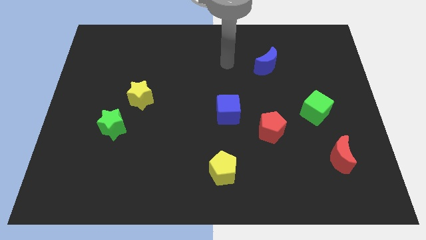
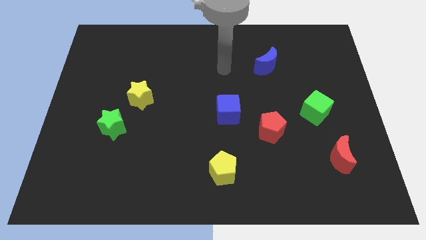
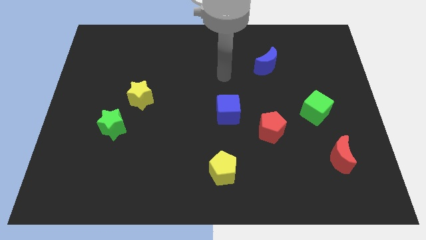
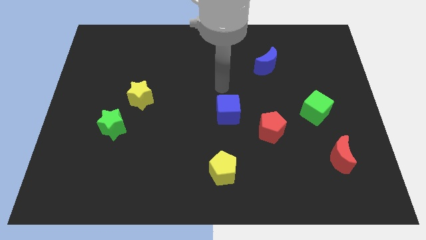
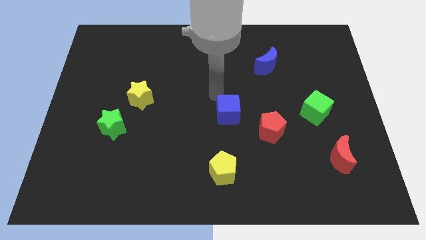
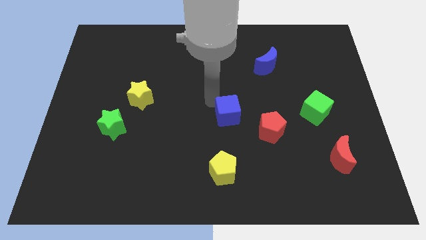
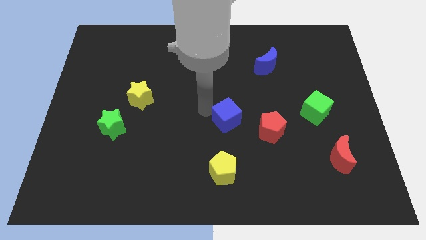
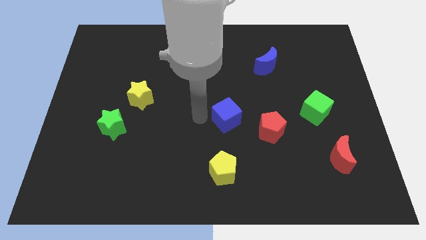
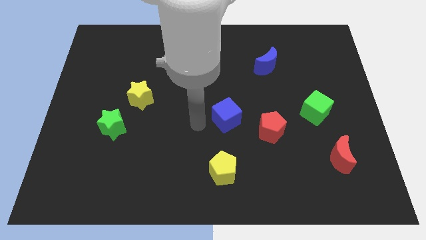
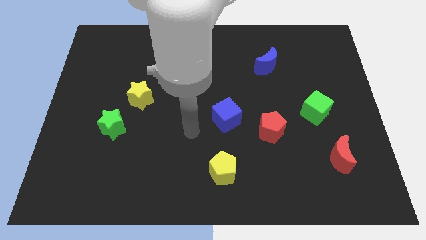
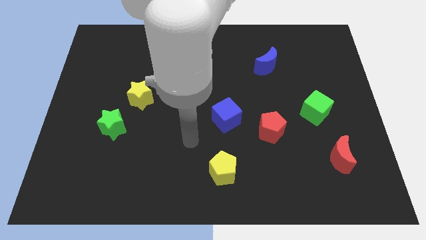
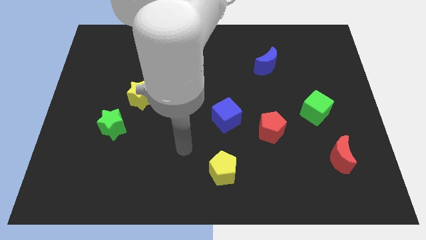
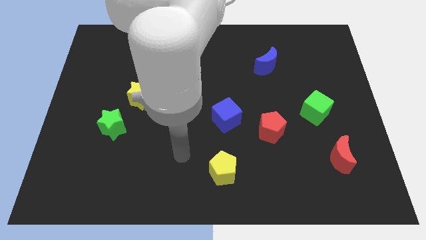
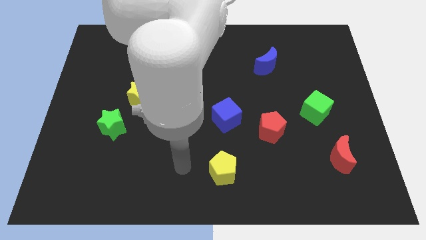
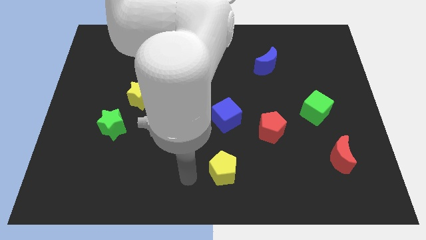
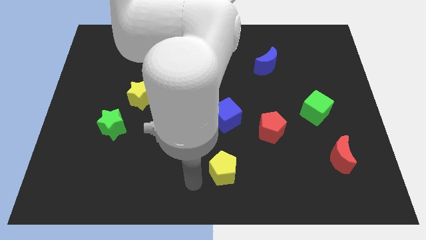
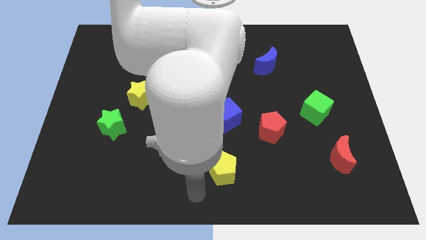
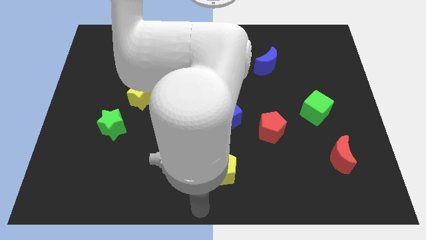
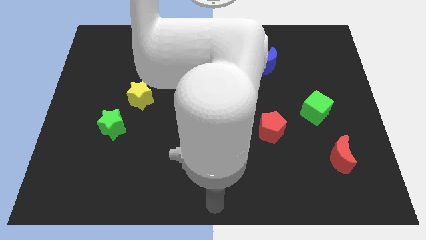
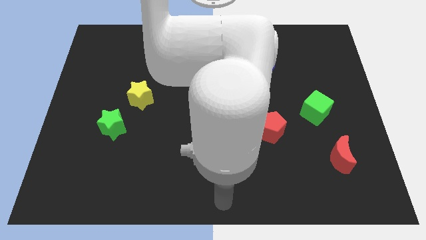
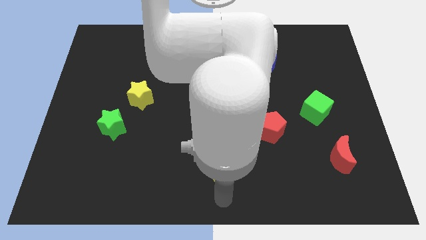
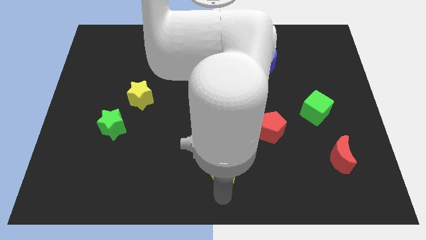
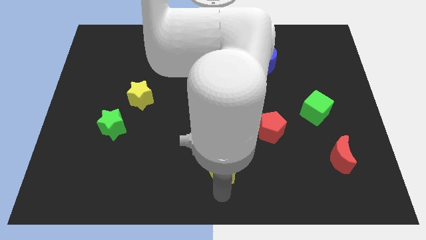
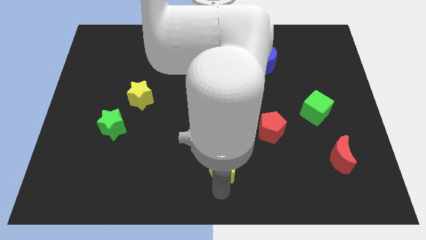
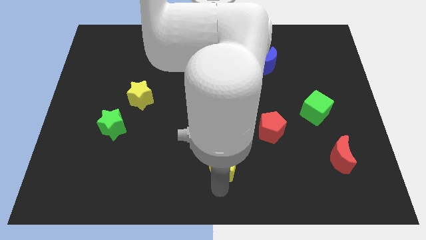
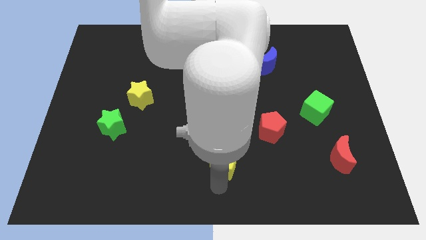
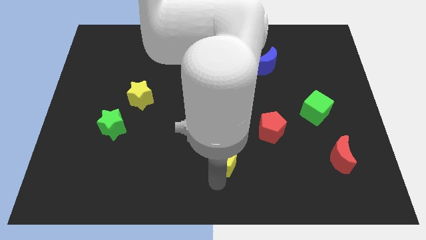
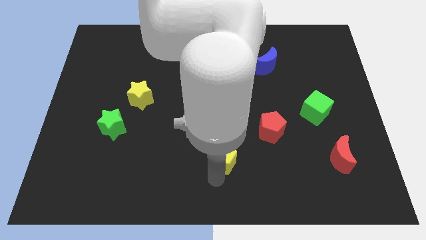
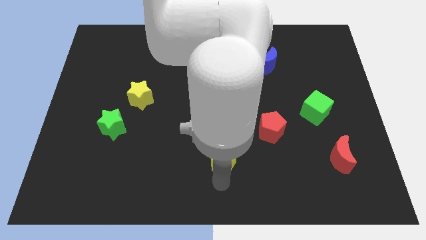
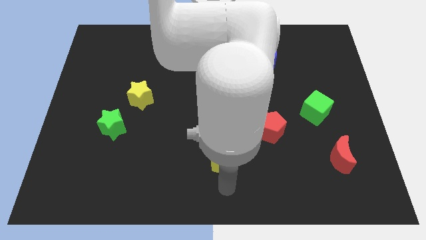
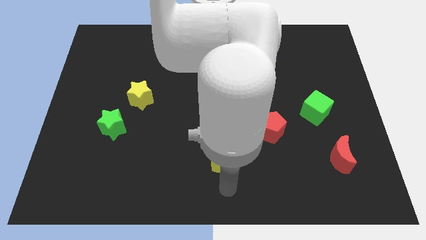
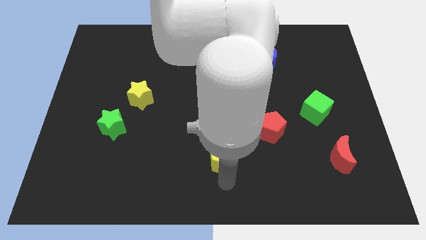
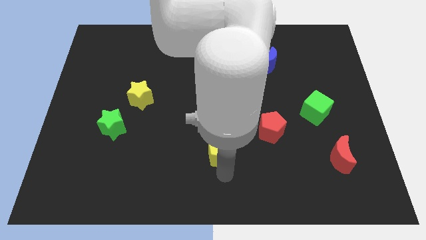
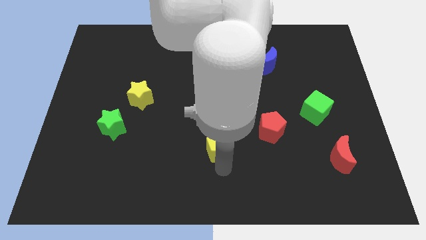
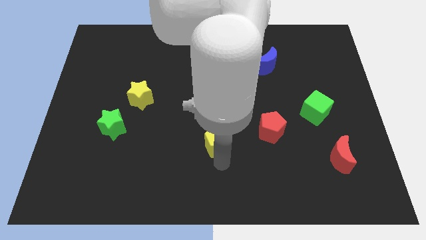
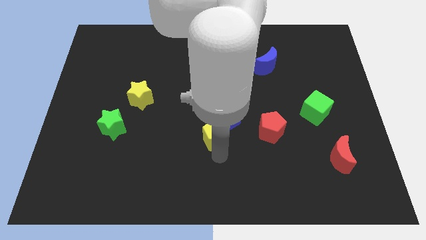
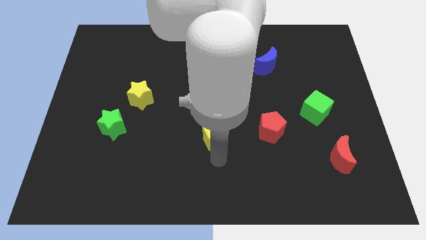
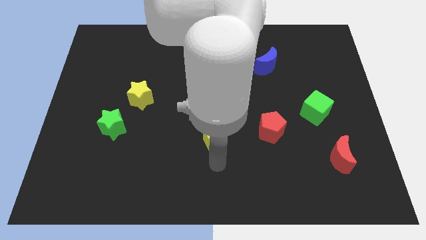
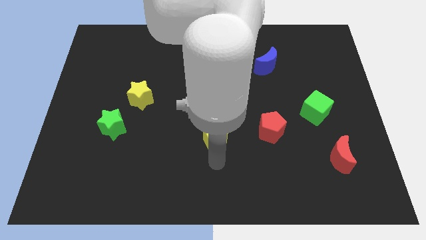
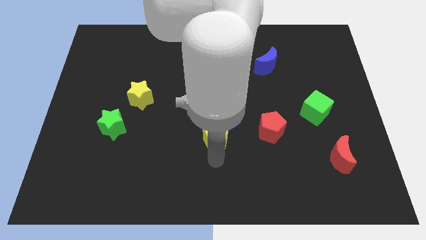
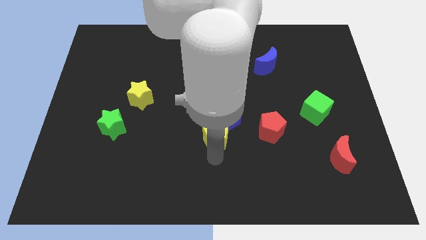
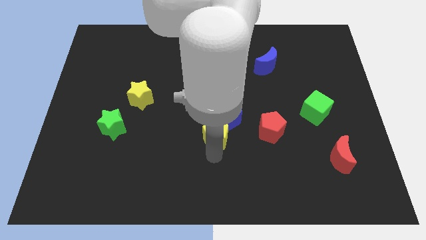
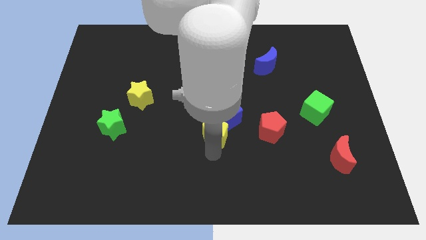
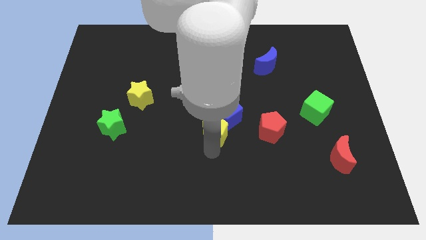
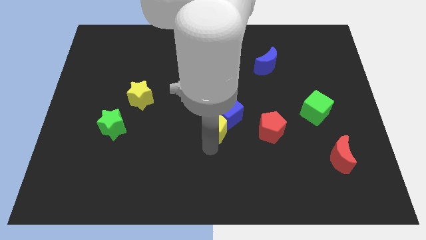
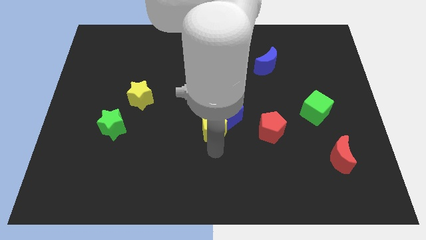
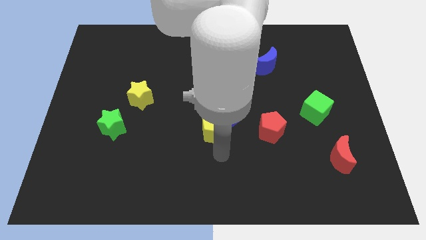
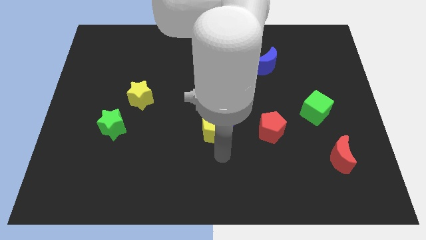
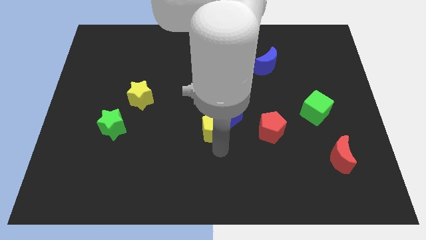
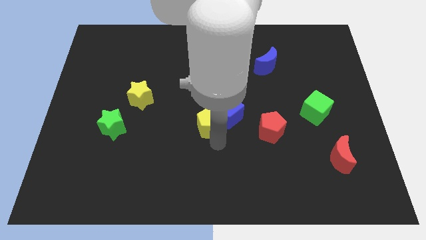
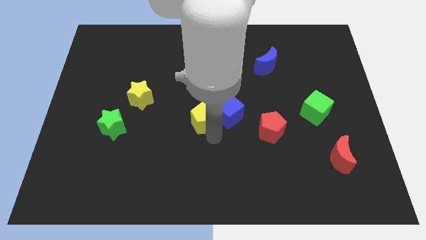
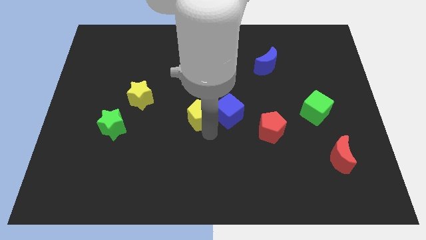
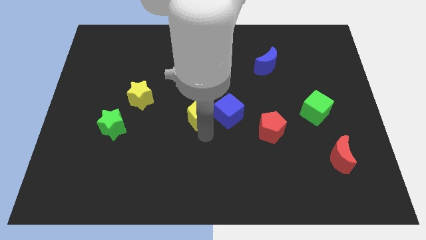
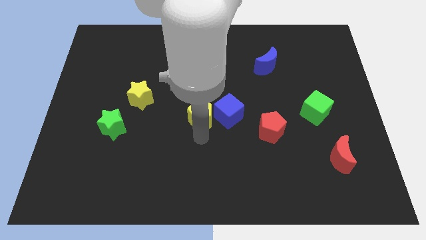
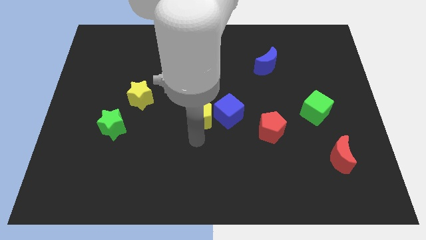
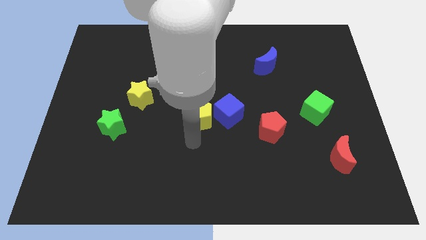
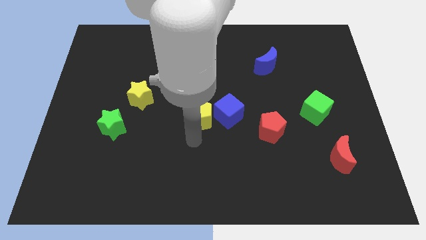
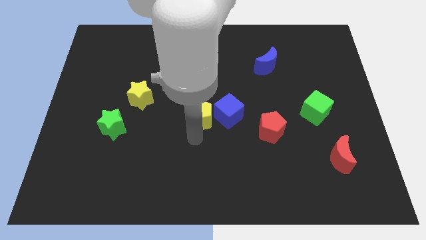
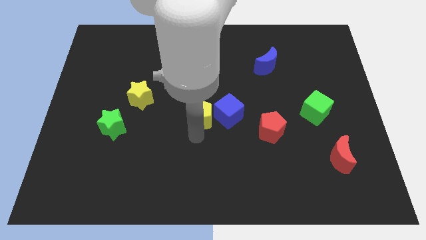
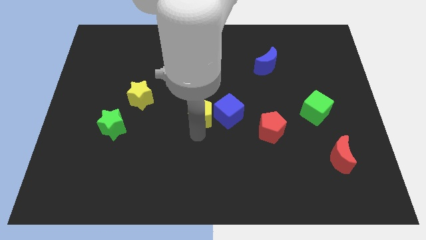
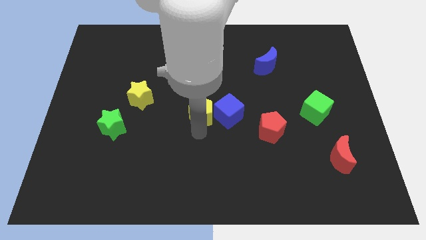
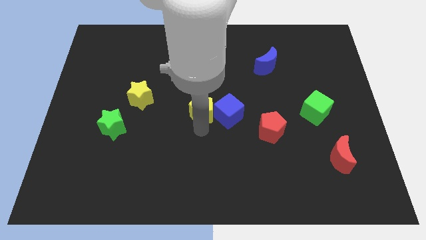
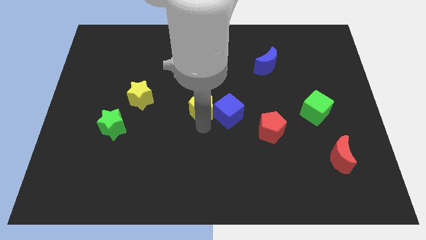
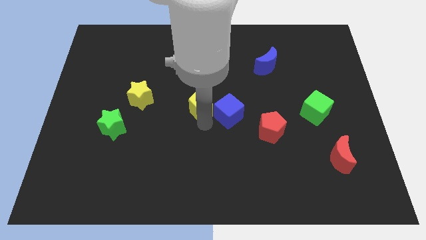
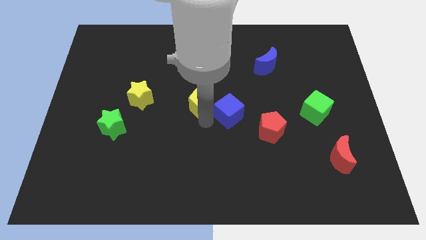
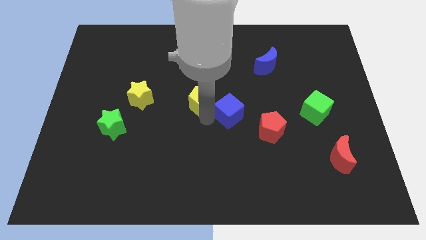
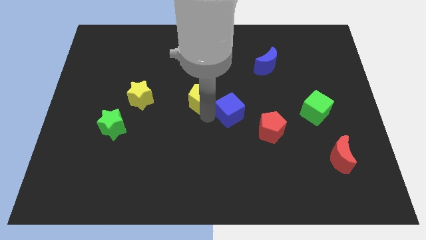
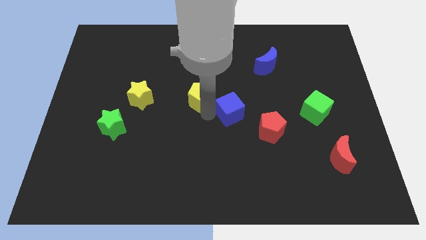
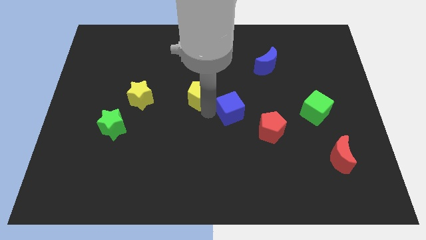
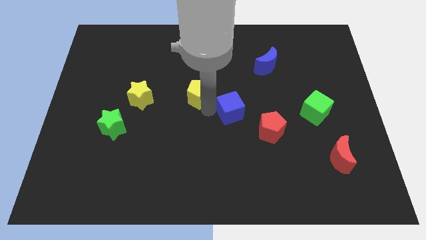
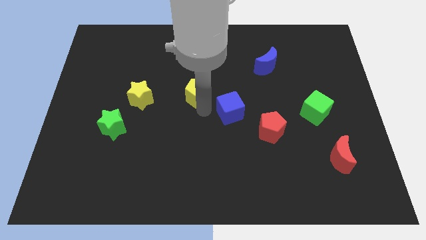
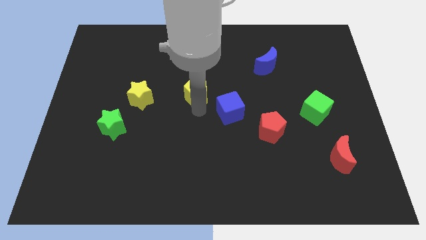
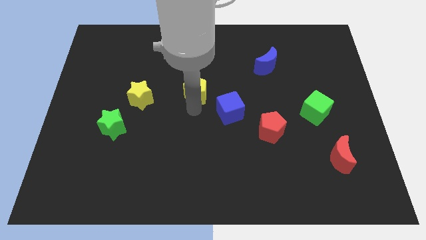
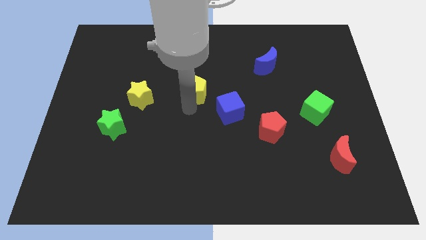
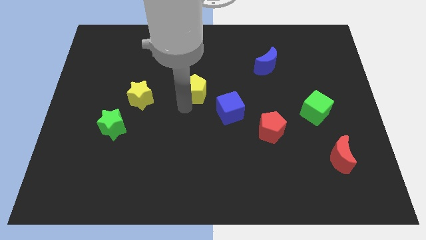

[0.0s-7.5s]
push the yellow pentagon upwards

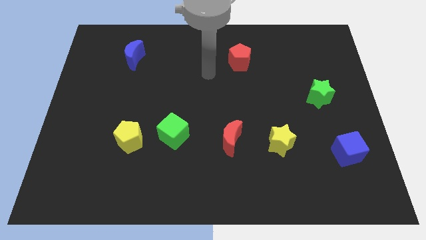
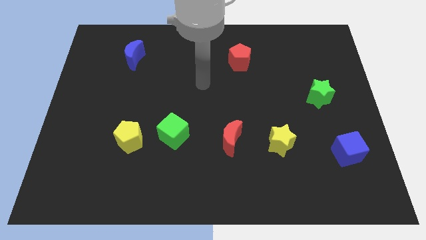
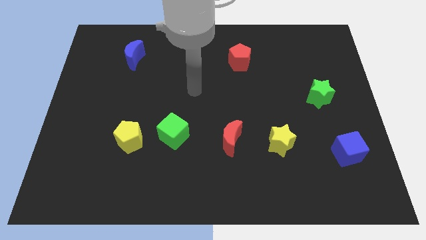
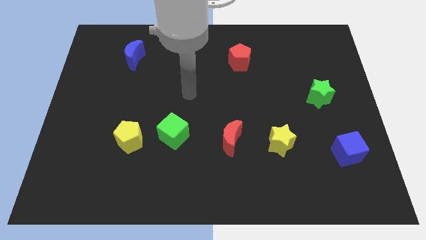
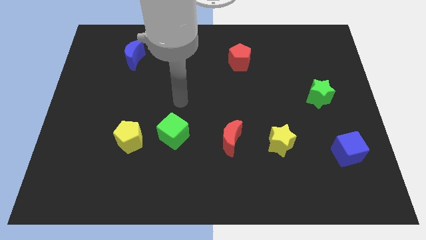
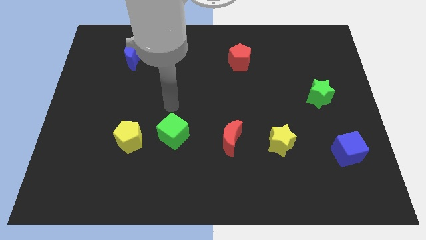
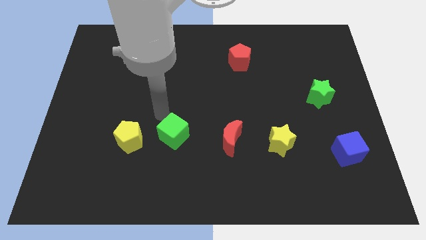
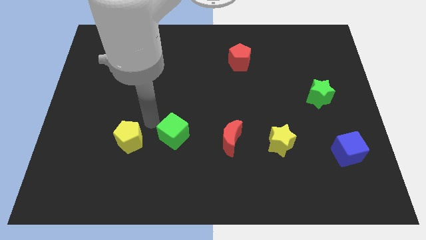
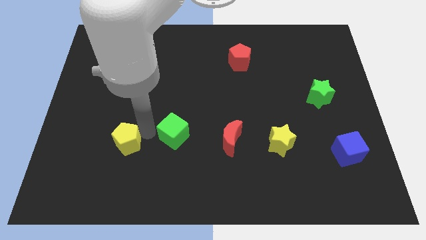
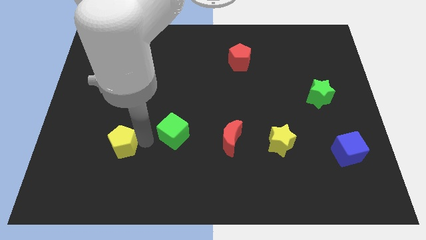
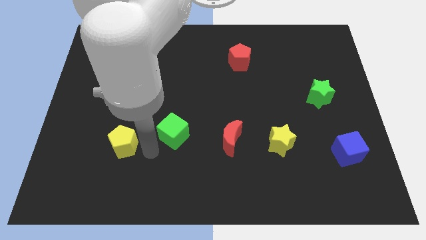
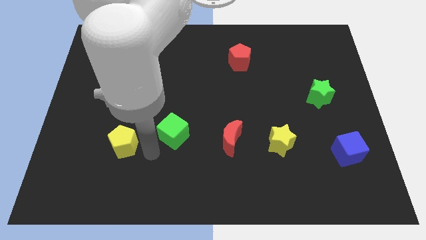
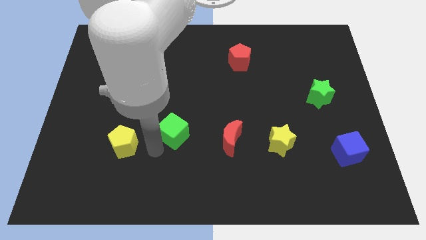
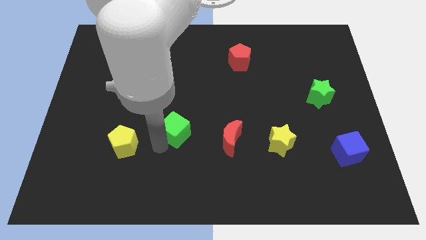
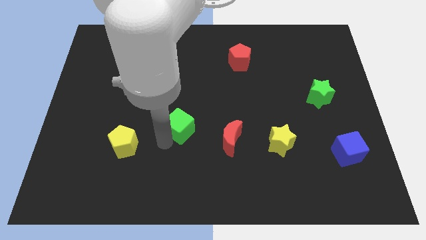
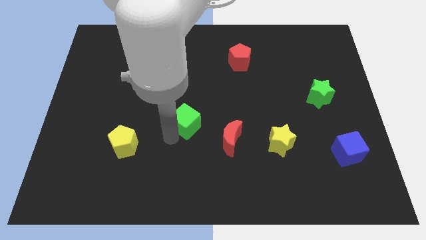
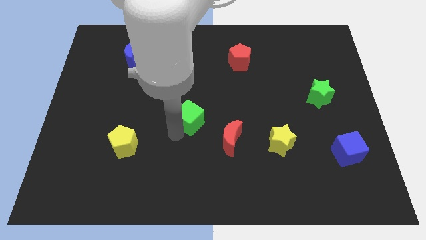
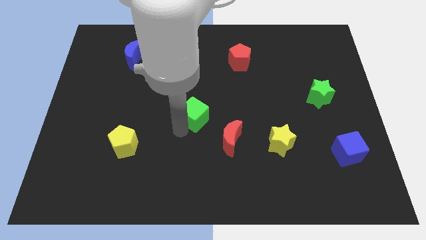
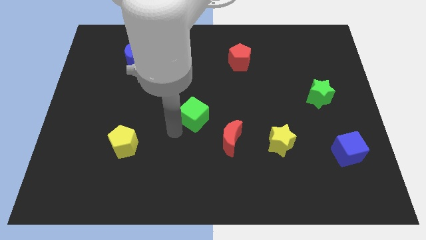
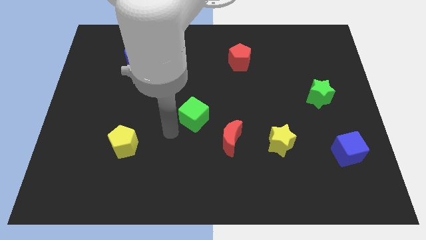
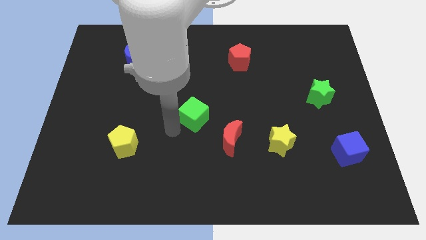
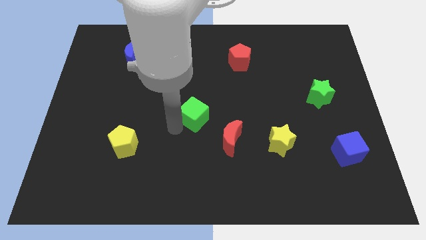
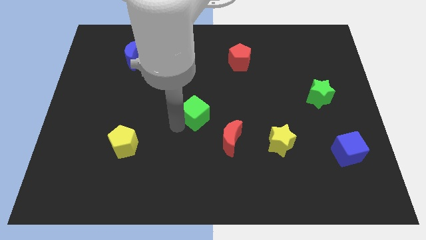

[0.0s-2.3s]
slightly slide the green cube diagonally upwards and right
